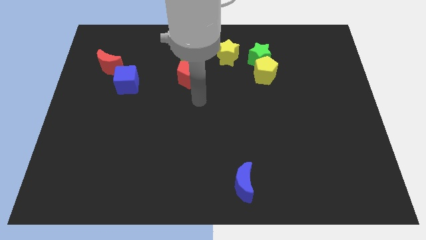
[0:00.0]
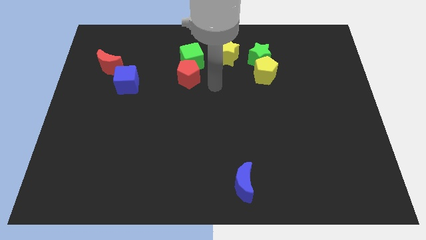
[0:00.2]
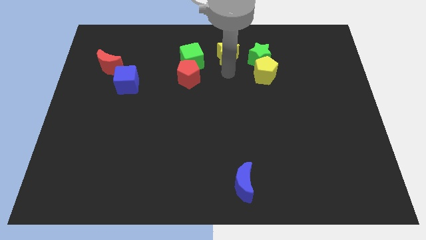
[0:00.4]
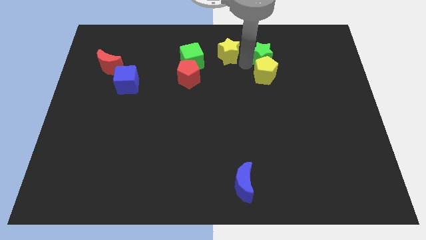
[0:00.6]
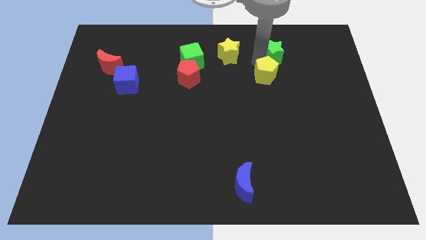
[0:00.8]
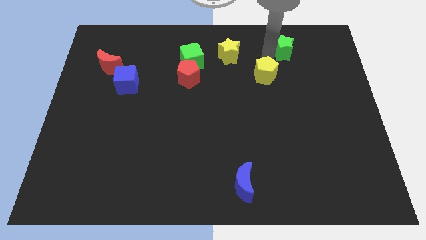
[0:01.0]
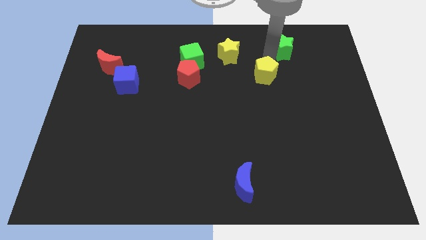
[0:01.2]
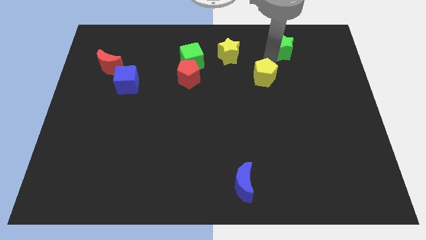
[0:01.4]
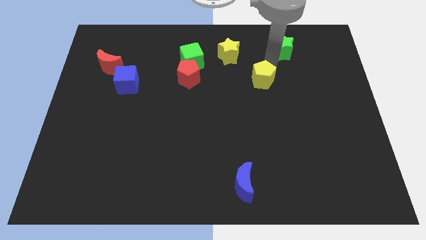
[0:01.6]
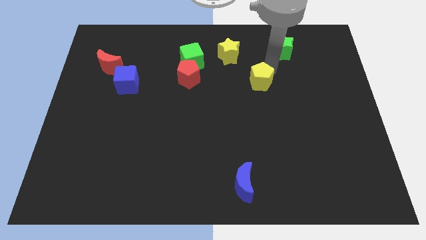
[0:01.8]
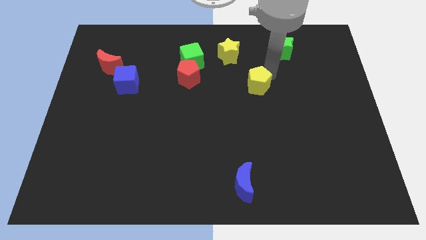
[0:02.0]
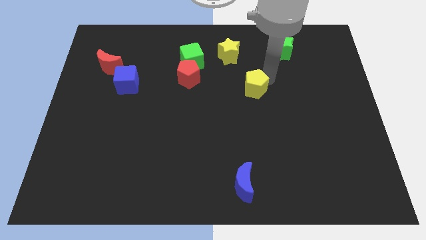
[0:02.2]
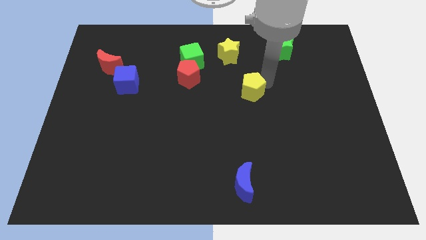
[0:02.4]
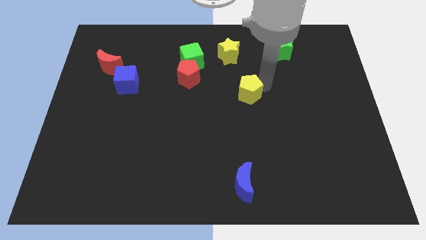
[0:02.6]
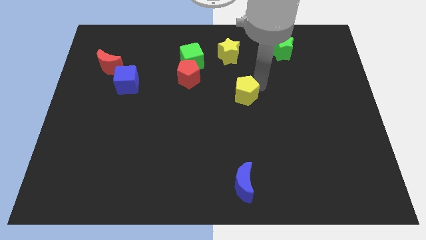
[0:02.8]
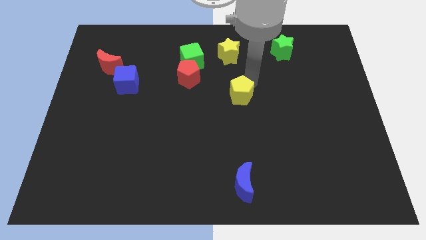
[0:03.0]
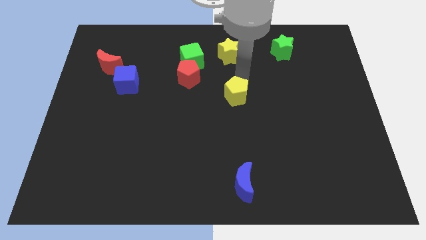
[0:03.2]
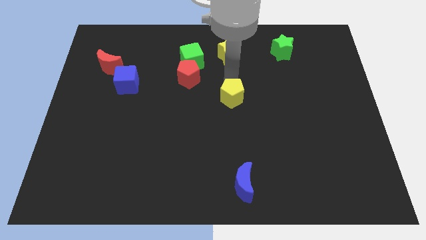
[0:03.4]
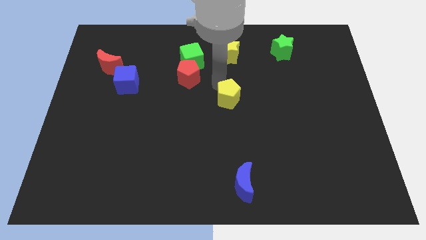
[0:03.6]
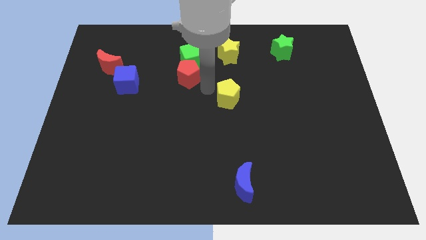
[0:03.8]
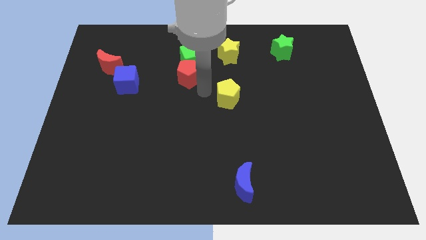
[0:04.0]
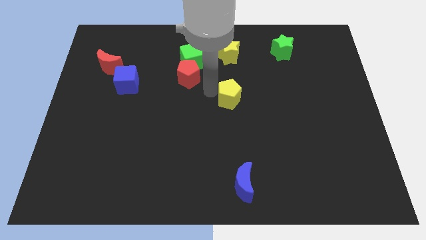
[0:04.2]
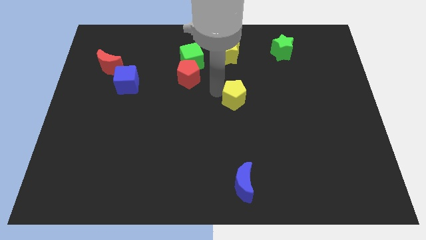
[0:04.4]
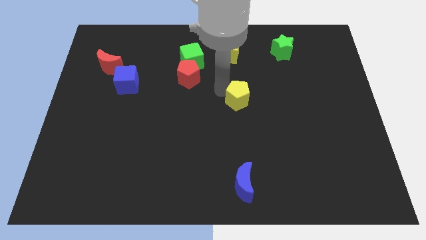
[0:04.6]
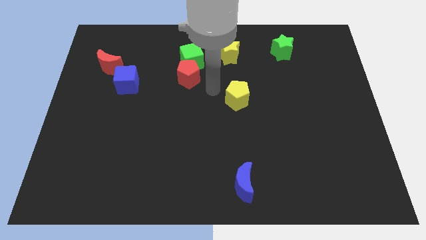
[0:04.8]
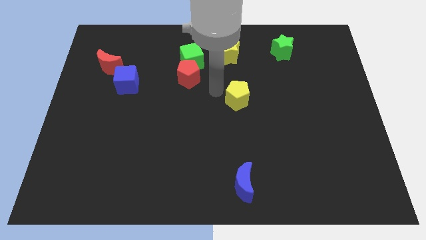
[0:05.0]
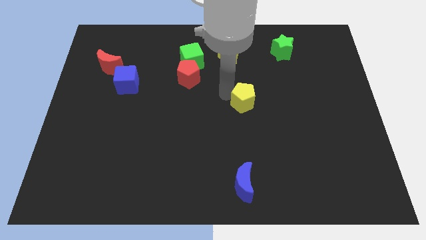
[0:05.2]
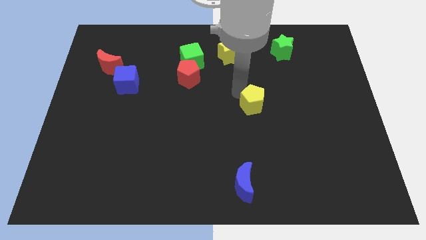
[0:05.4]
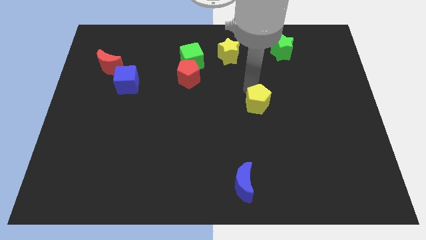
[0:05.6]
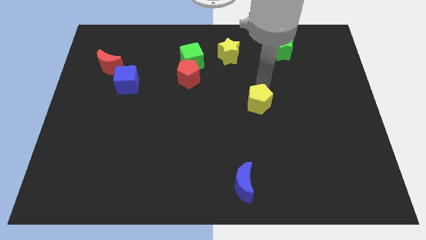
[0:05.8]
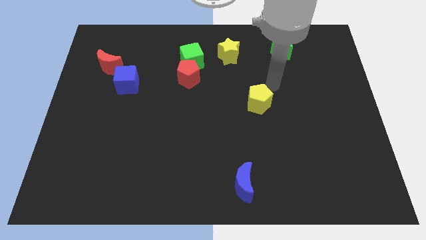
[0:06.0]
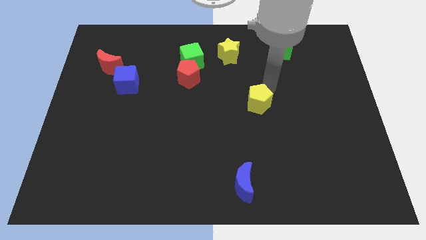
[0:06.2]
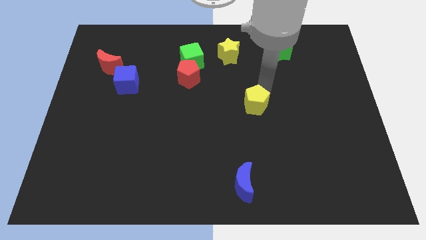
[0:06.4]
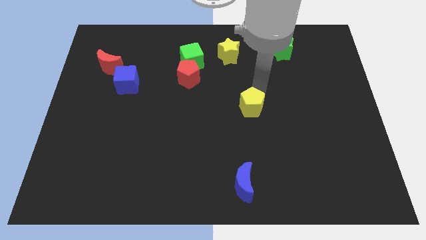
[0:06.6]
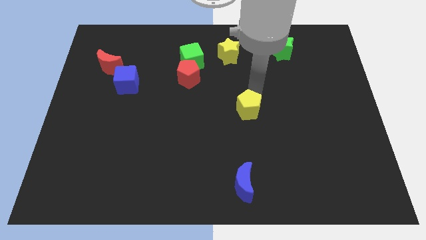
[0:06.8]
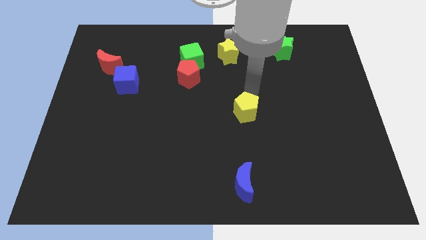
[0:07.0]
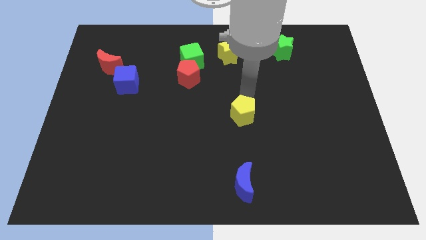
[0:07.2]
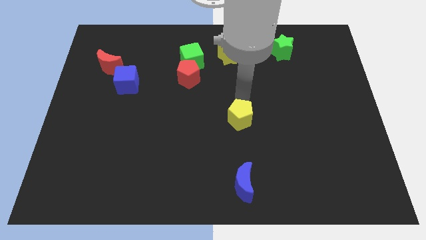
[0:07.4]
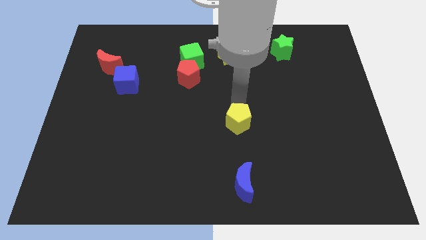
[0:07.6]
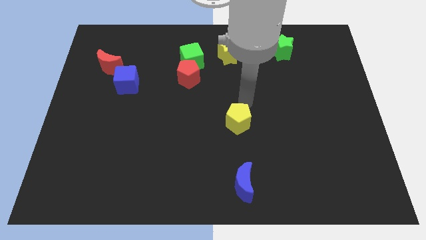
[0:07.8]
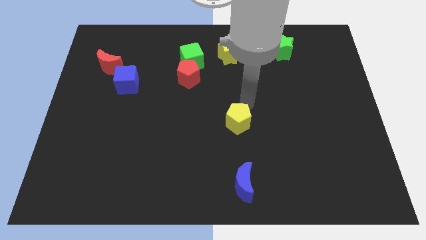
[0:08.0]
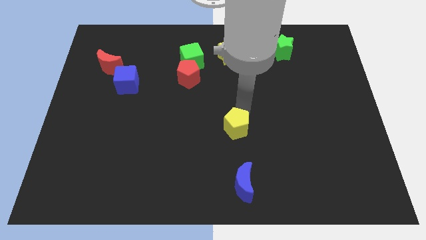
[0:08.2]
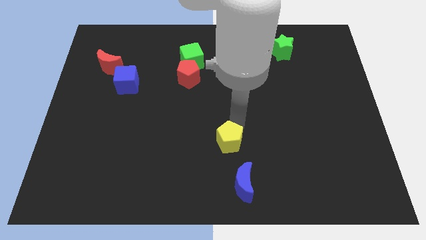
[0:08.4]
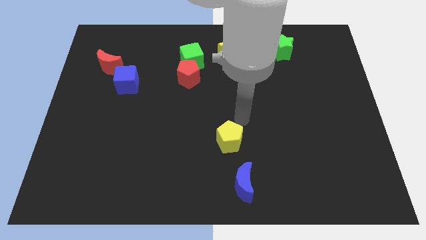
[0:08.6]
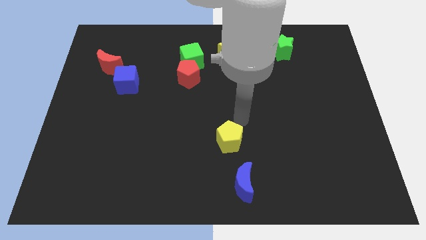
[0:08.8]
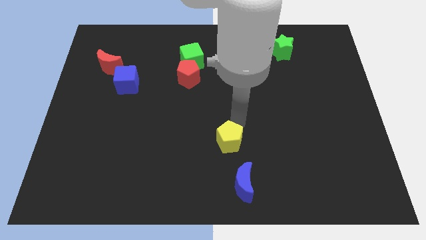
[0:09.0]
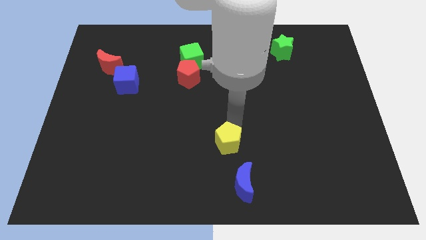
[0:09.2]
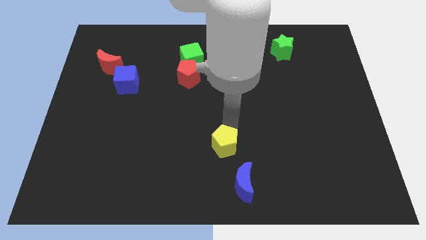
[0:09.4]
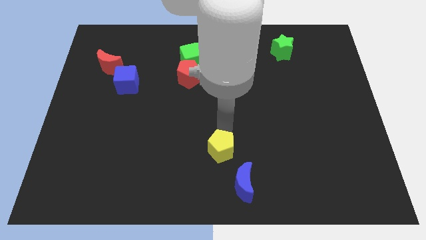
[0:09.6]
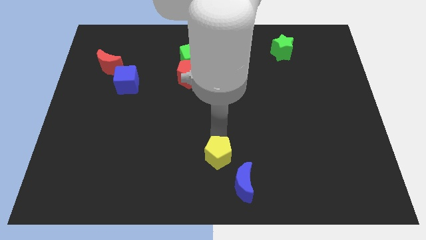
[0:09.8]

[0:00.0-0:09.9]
move the yellow pentagon to the bottom side

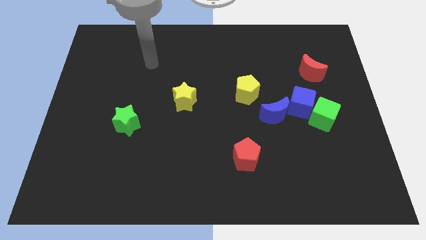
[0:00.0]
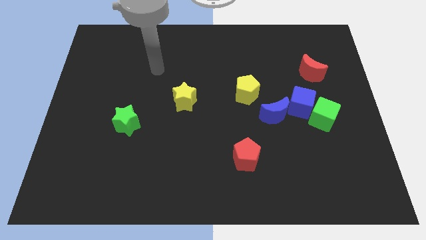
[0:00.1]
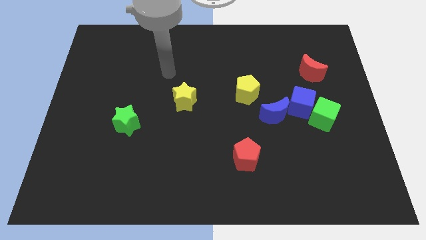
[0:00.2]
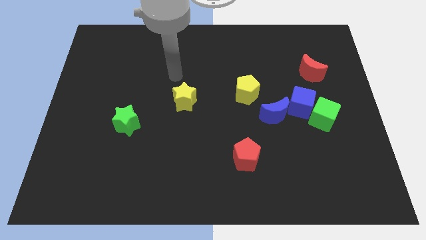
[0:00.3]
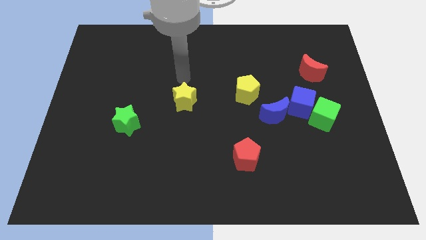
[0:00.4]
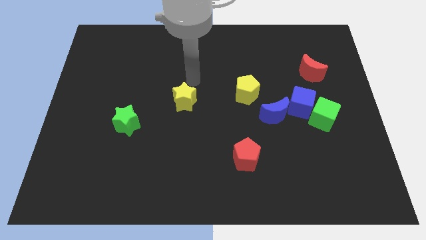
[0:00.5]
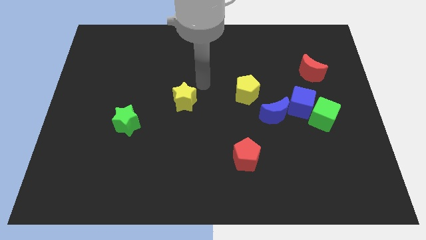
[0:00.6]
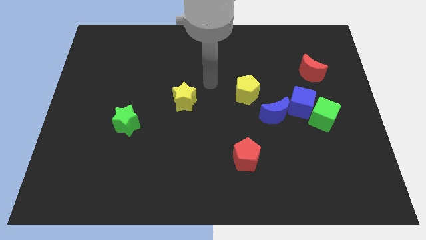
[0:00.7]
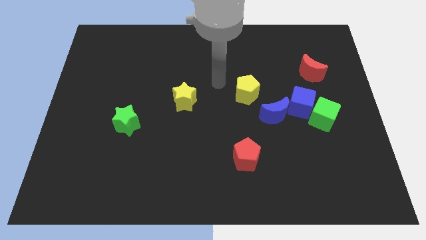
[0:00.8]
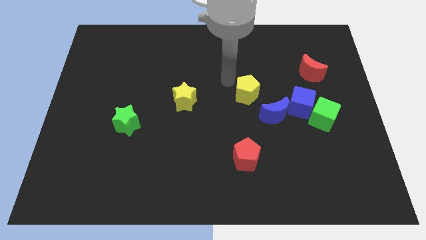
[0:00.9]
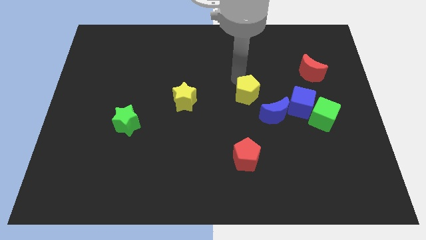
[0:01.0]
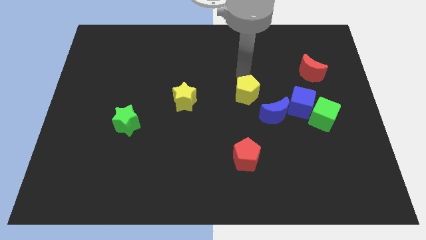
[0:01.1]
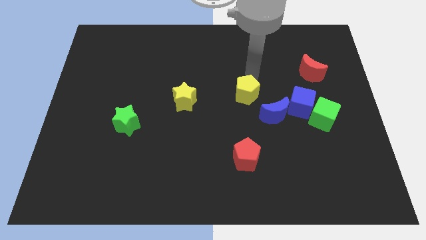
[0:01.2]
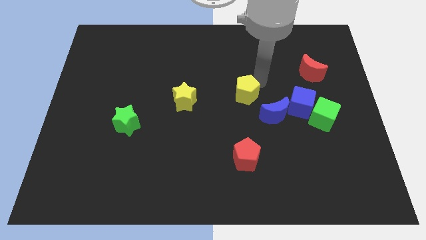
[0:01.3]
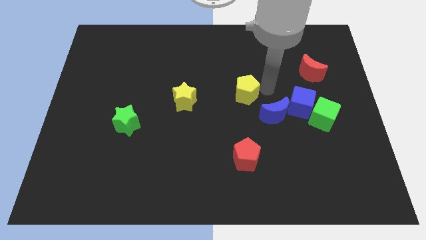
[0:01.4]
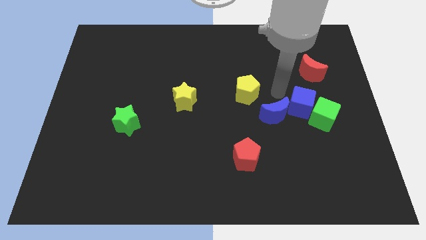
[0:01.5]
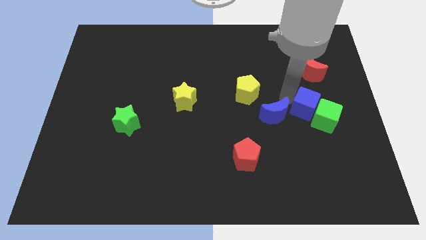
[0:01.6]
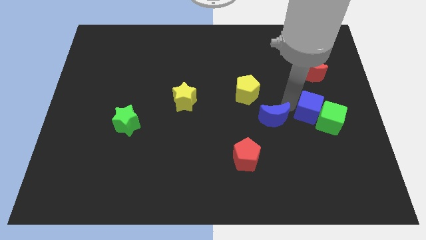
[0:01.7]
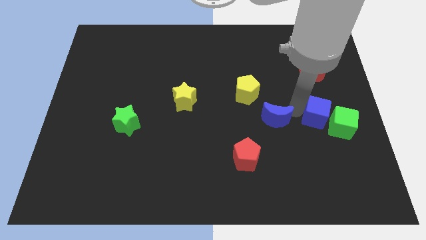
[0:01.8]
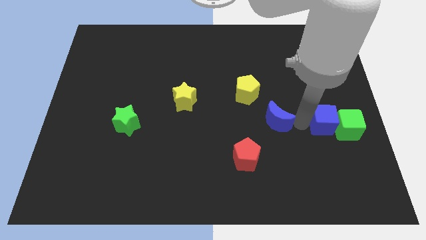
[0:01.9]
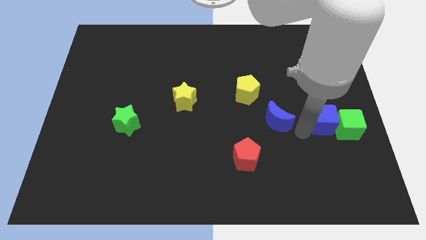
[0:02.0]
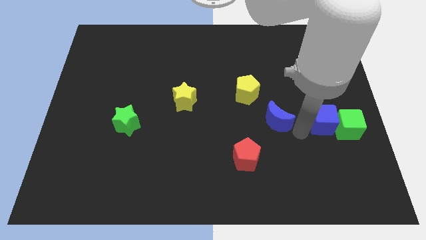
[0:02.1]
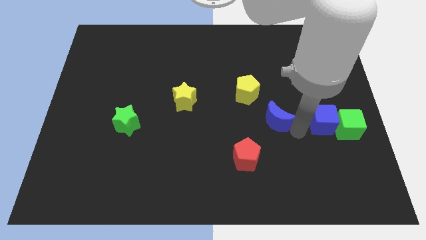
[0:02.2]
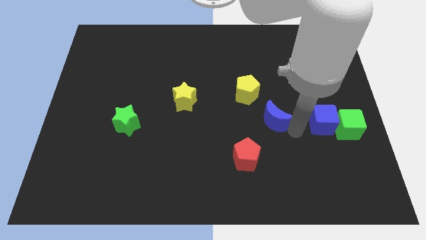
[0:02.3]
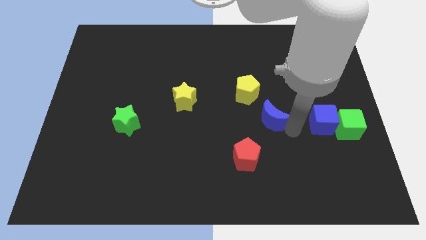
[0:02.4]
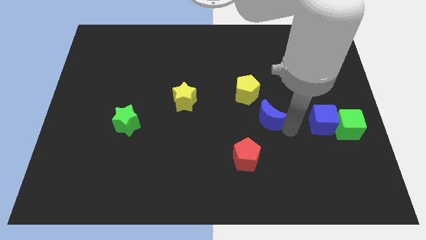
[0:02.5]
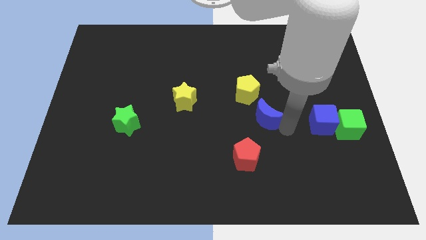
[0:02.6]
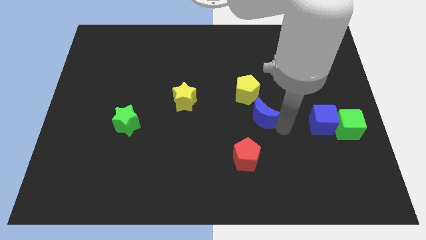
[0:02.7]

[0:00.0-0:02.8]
push the blue moon to the middle
